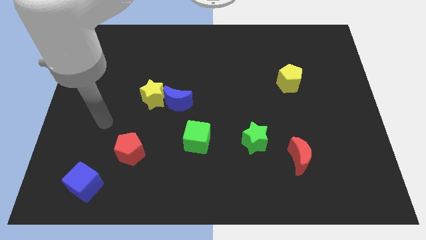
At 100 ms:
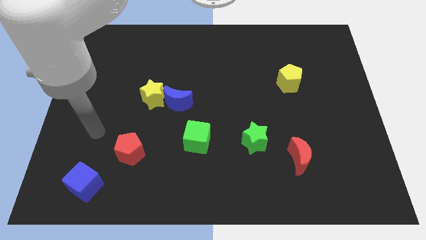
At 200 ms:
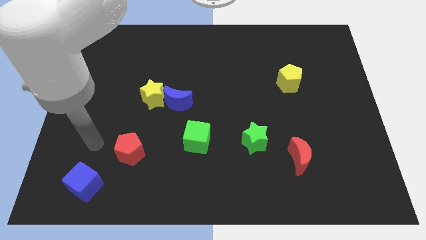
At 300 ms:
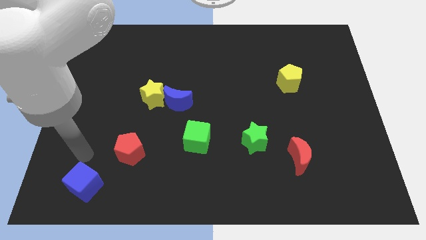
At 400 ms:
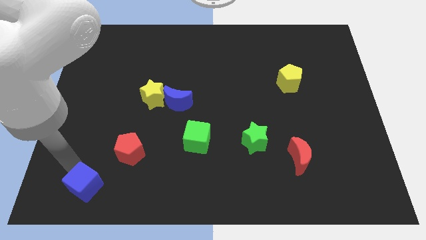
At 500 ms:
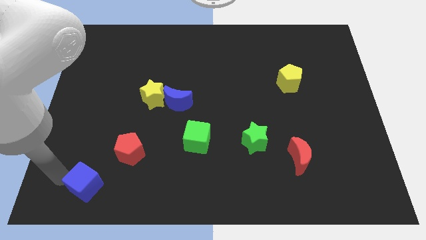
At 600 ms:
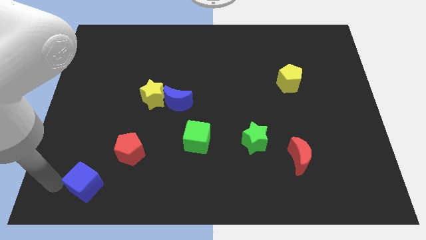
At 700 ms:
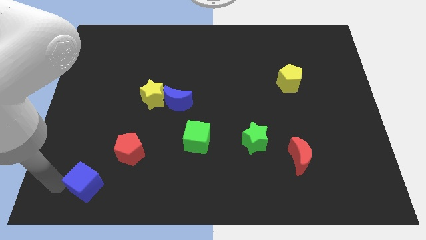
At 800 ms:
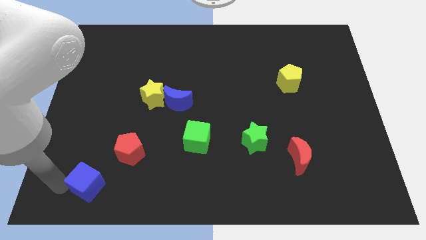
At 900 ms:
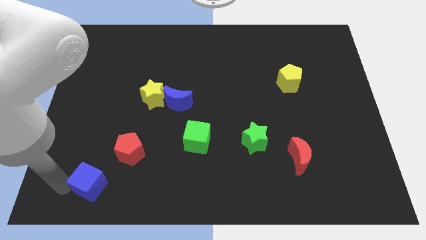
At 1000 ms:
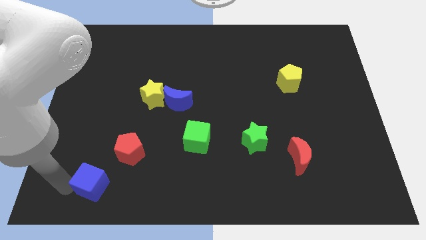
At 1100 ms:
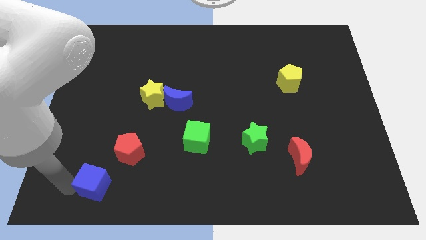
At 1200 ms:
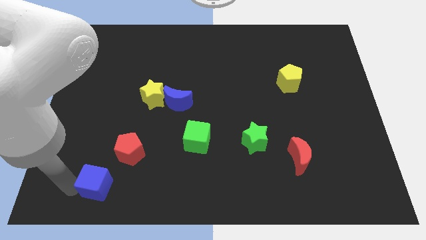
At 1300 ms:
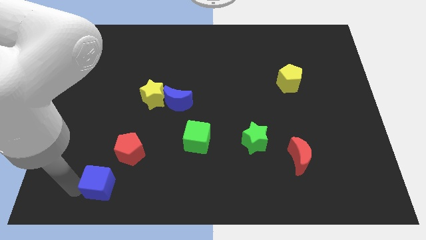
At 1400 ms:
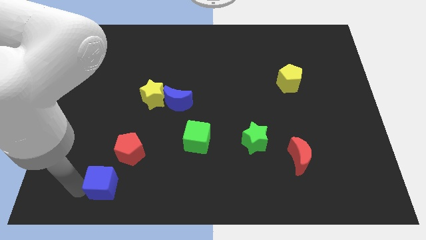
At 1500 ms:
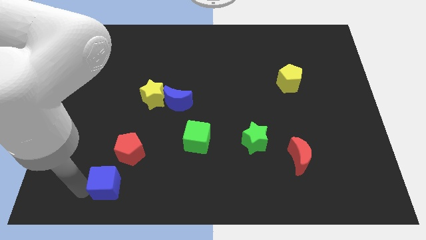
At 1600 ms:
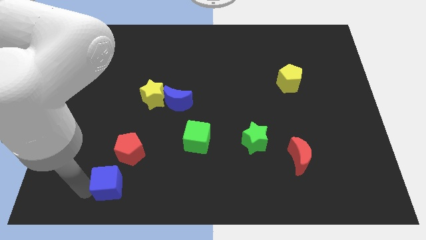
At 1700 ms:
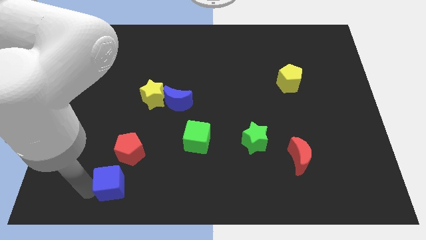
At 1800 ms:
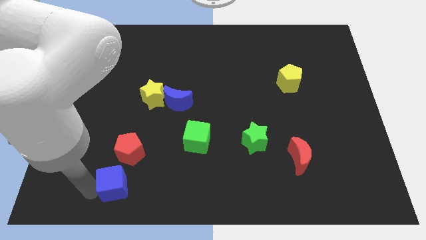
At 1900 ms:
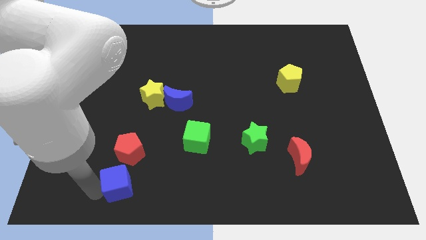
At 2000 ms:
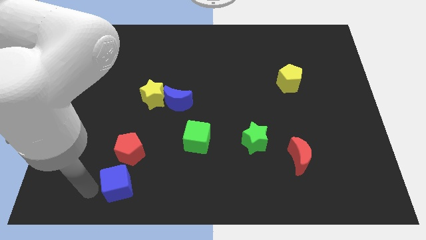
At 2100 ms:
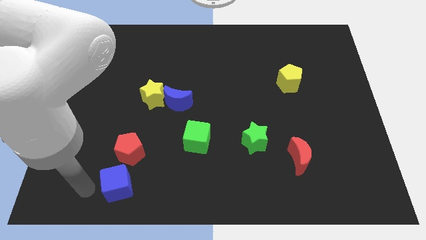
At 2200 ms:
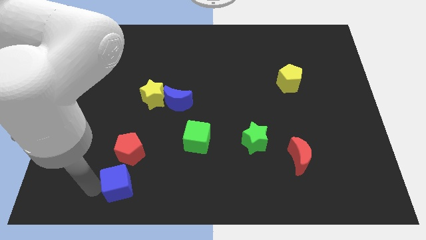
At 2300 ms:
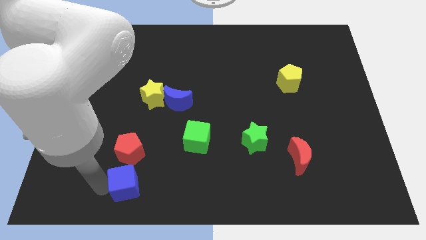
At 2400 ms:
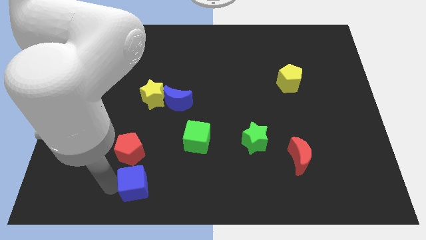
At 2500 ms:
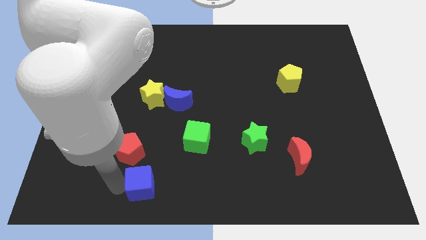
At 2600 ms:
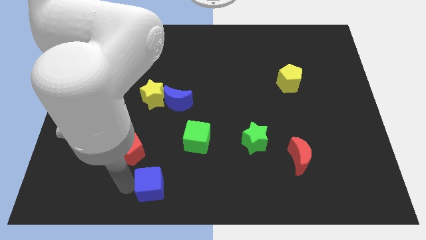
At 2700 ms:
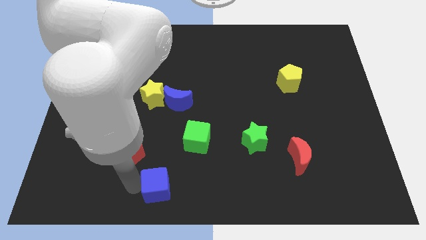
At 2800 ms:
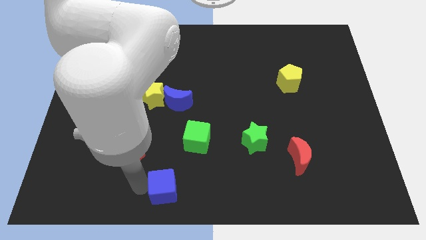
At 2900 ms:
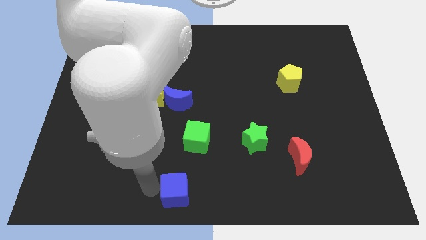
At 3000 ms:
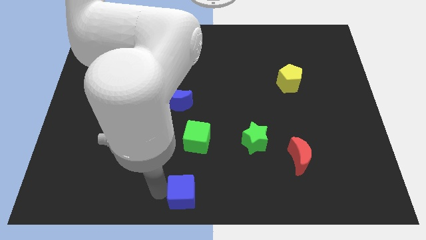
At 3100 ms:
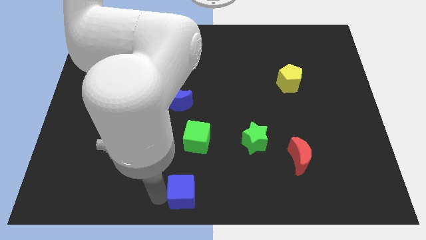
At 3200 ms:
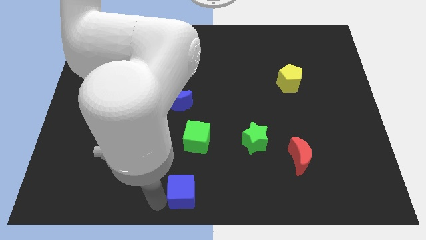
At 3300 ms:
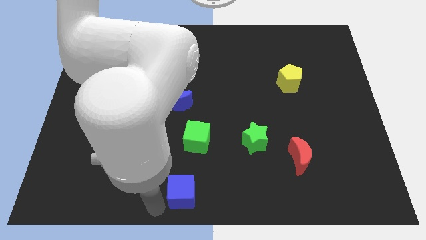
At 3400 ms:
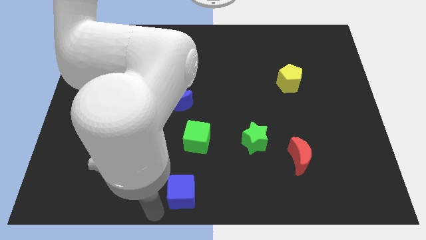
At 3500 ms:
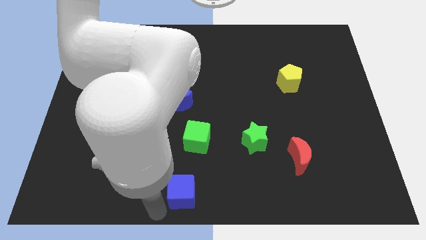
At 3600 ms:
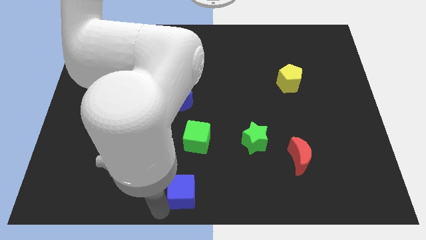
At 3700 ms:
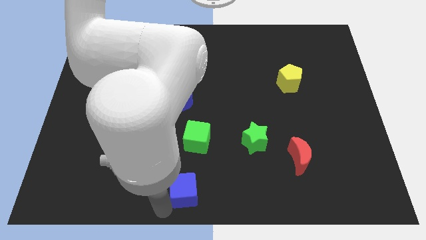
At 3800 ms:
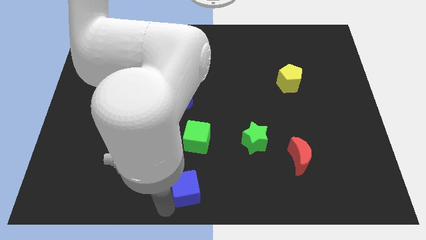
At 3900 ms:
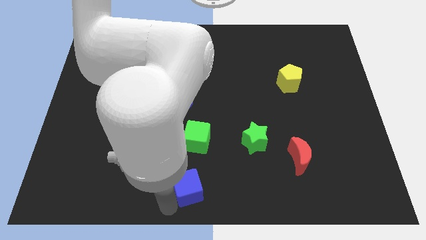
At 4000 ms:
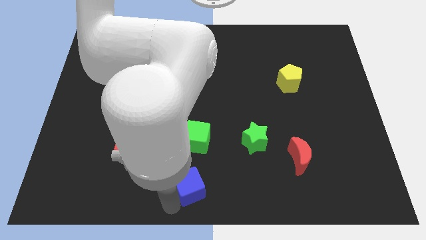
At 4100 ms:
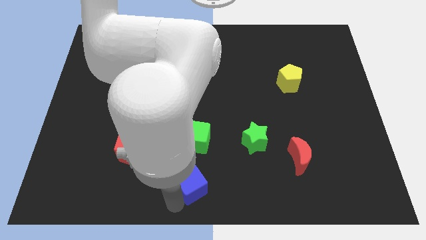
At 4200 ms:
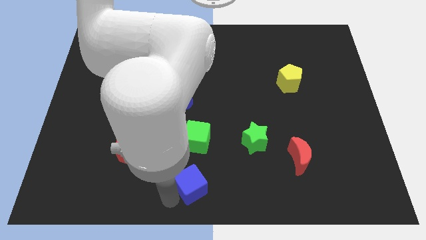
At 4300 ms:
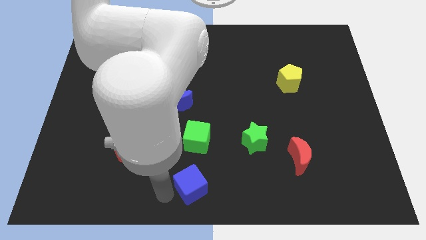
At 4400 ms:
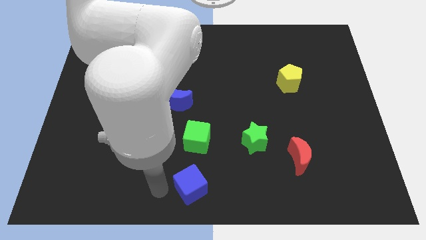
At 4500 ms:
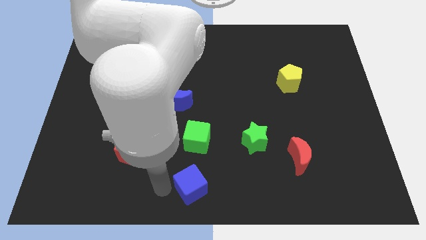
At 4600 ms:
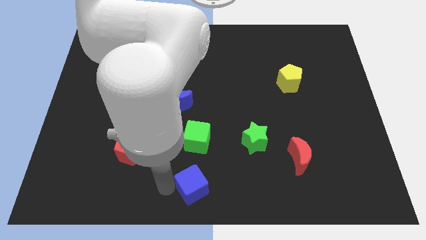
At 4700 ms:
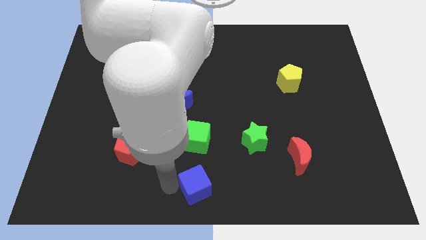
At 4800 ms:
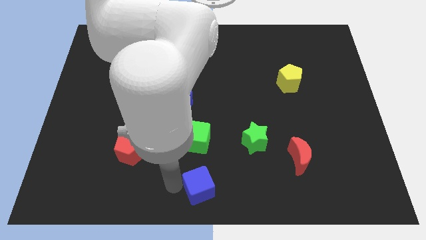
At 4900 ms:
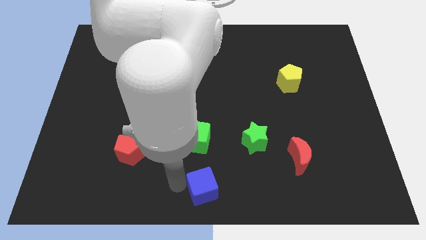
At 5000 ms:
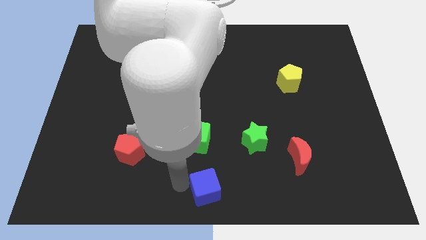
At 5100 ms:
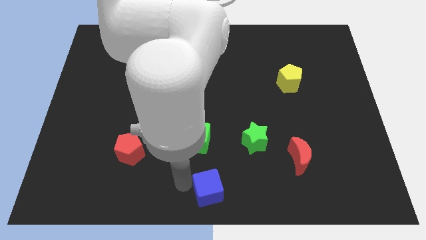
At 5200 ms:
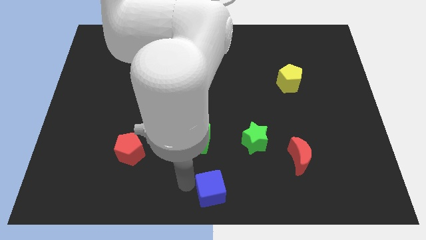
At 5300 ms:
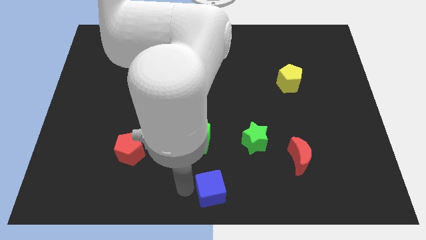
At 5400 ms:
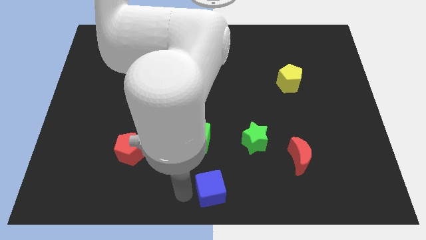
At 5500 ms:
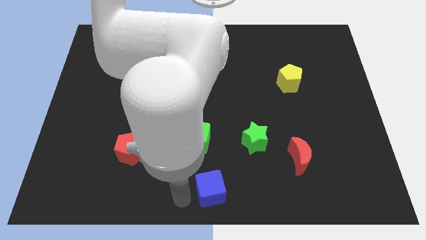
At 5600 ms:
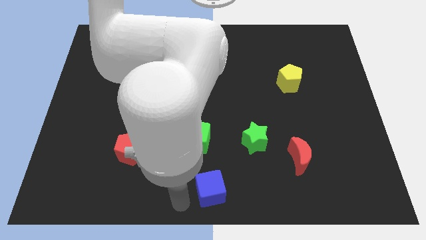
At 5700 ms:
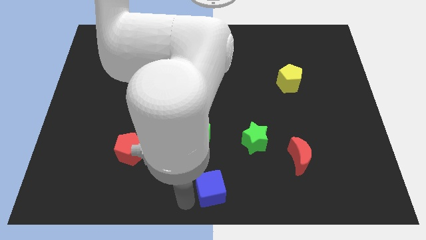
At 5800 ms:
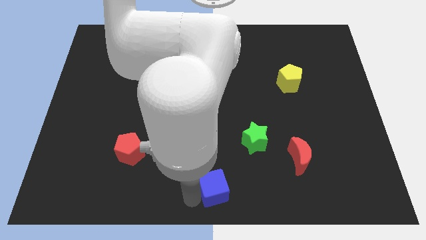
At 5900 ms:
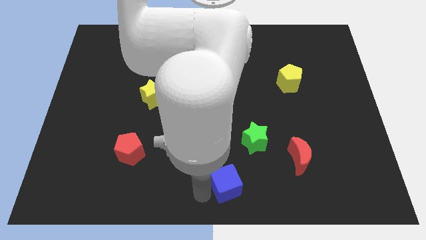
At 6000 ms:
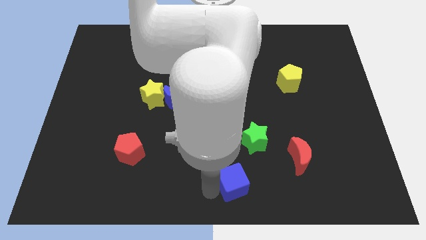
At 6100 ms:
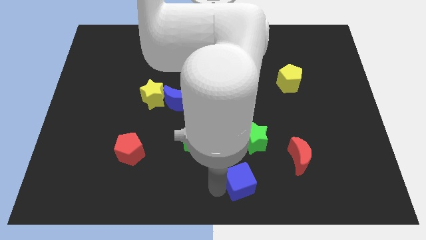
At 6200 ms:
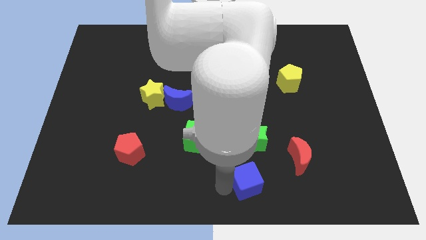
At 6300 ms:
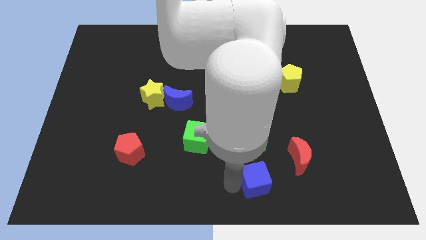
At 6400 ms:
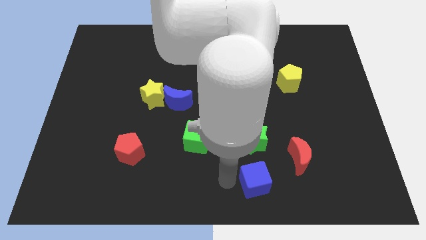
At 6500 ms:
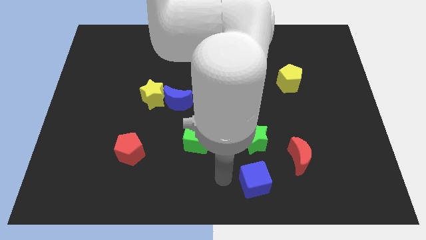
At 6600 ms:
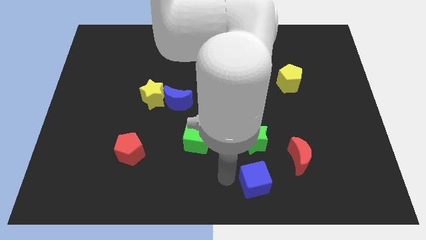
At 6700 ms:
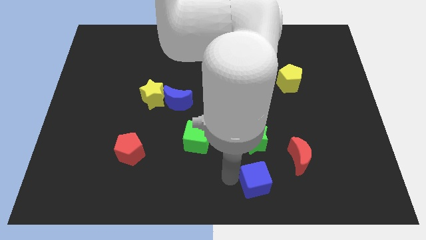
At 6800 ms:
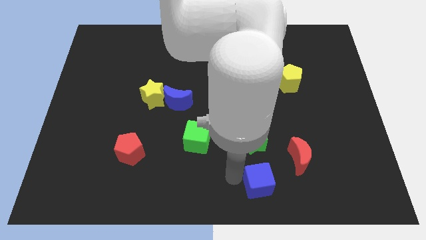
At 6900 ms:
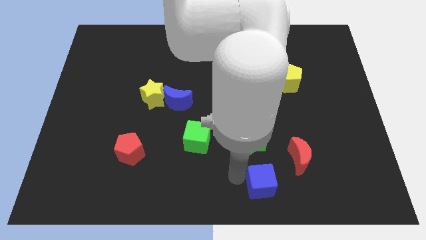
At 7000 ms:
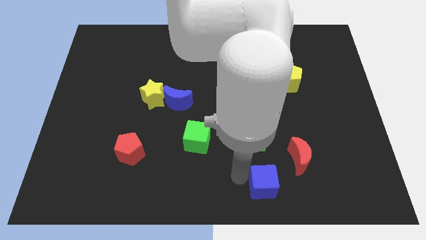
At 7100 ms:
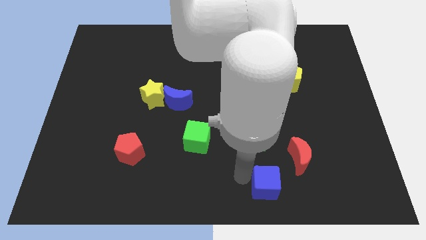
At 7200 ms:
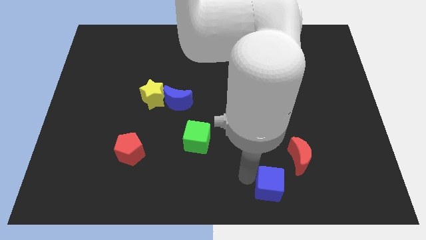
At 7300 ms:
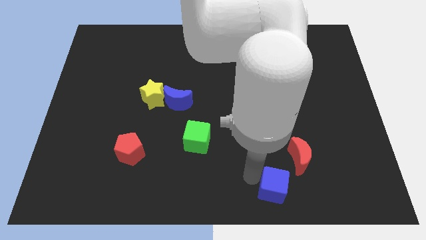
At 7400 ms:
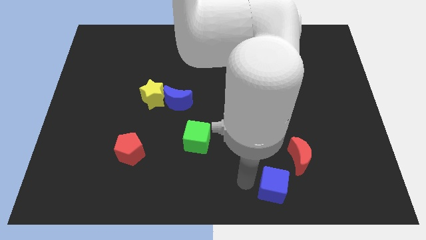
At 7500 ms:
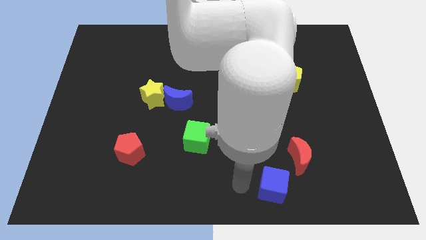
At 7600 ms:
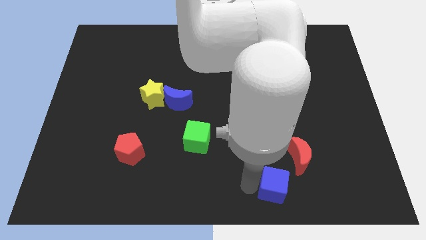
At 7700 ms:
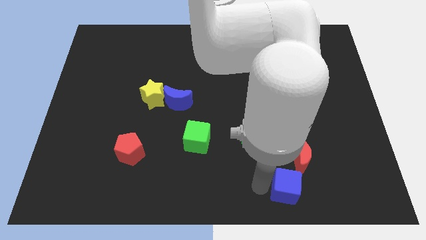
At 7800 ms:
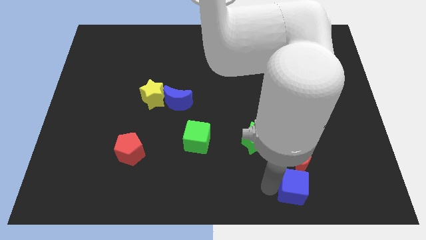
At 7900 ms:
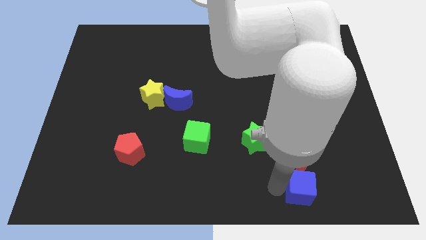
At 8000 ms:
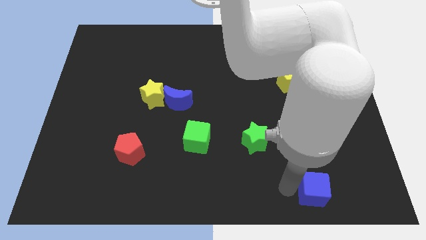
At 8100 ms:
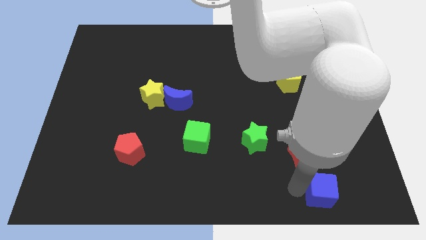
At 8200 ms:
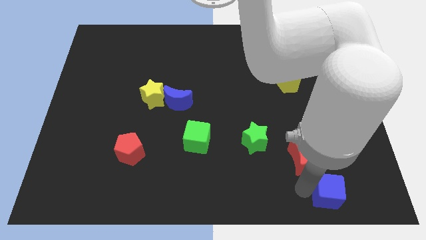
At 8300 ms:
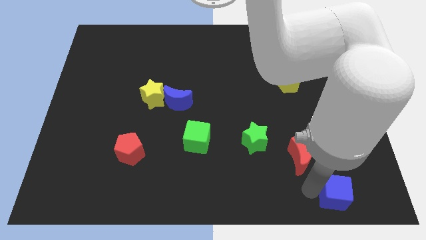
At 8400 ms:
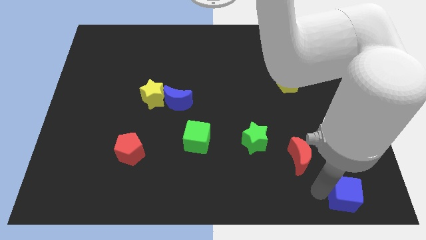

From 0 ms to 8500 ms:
slide the blue cube to the bottom right
